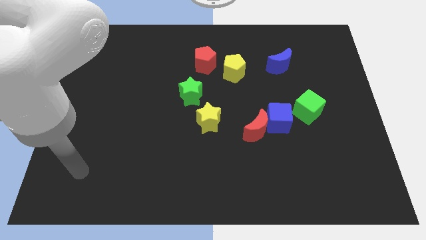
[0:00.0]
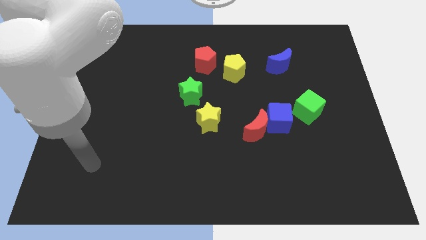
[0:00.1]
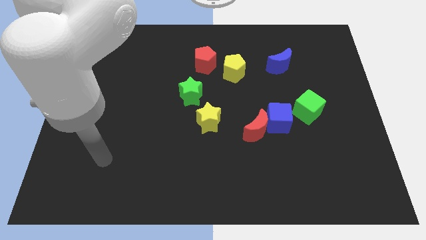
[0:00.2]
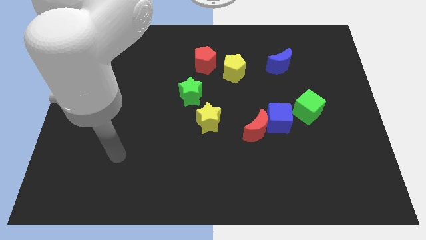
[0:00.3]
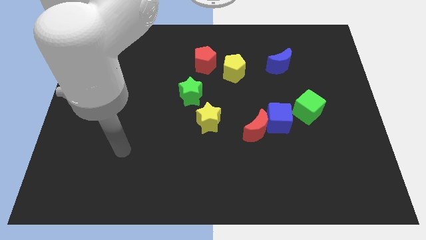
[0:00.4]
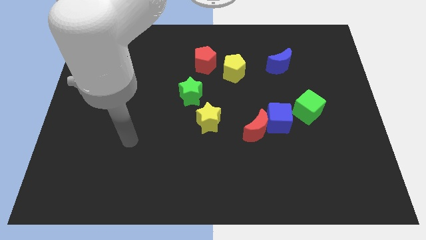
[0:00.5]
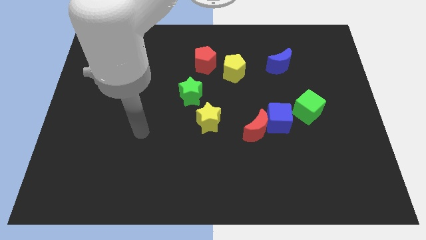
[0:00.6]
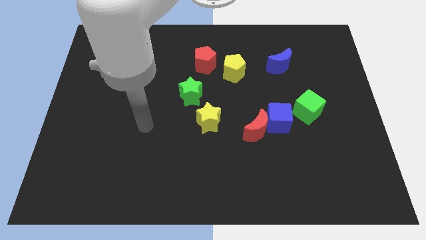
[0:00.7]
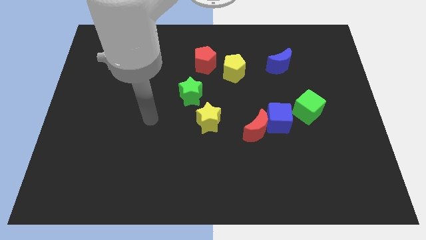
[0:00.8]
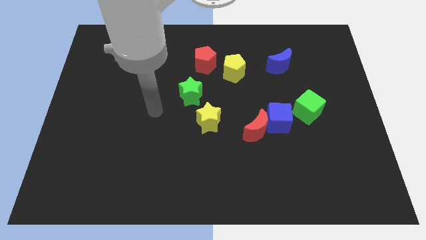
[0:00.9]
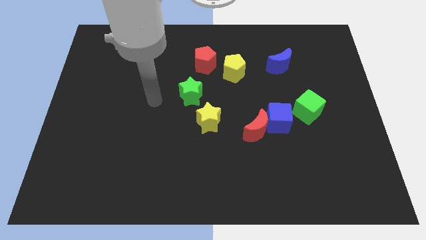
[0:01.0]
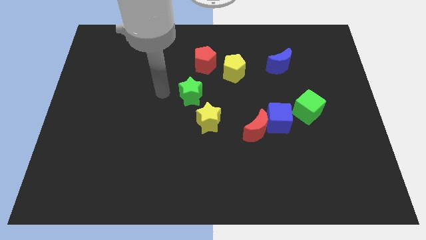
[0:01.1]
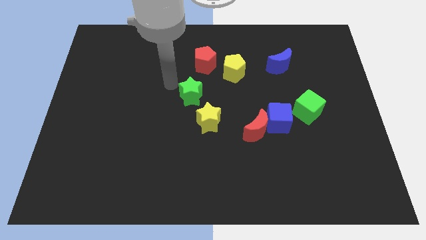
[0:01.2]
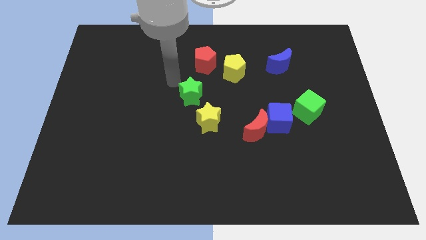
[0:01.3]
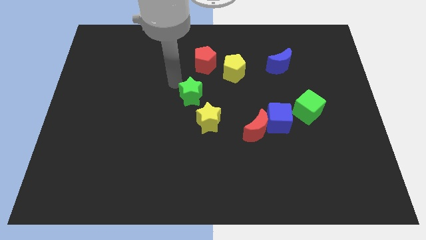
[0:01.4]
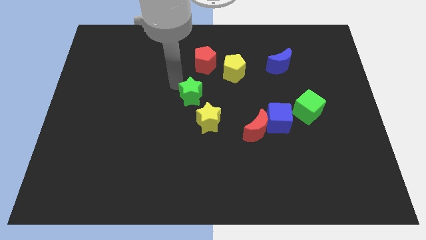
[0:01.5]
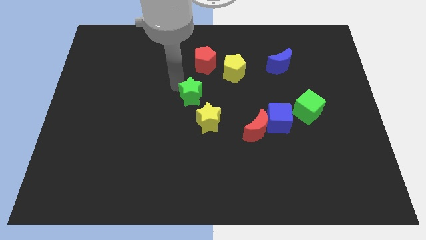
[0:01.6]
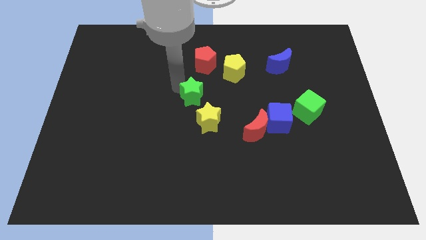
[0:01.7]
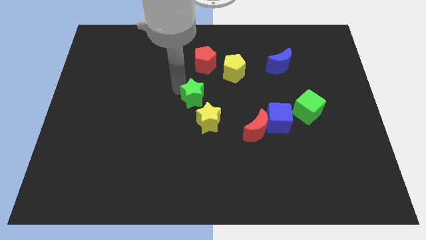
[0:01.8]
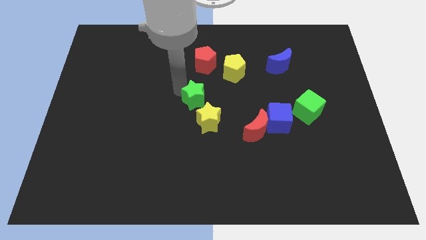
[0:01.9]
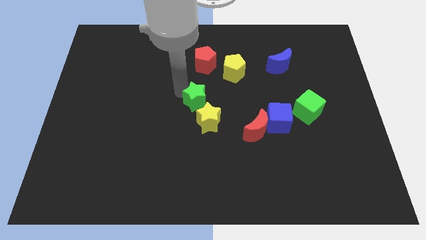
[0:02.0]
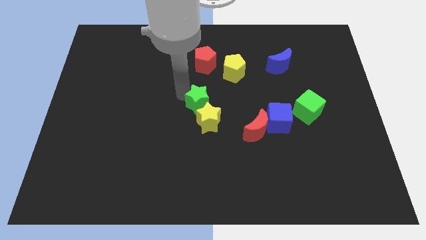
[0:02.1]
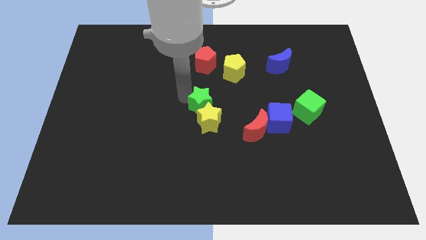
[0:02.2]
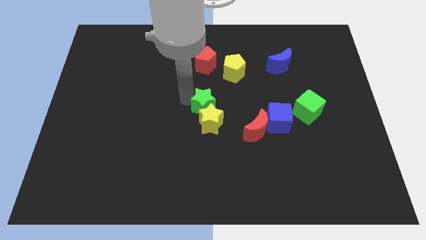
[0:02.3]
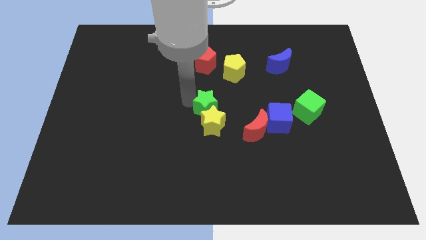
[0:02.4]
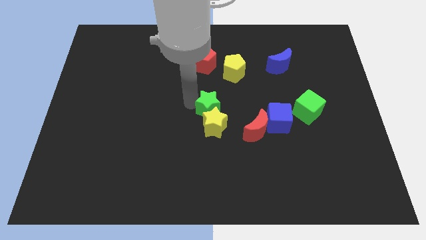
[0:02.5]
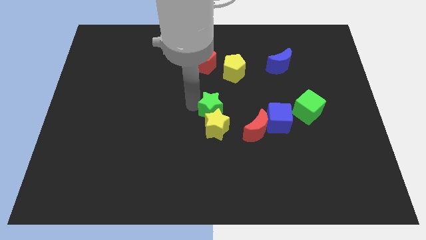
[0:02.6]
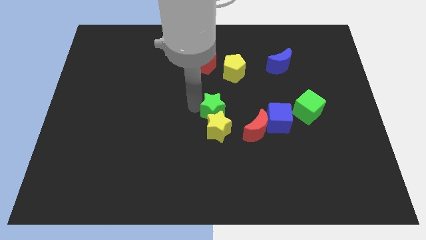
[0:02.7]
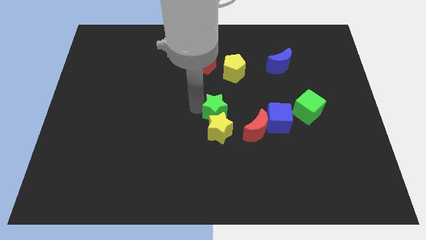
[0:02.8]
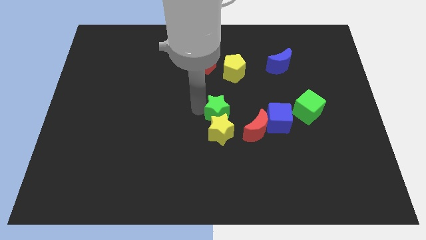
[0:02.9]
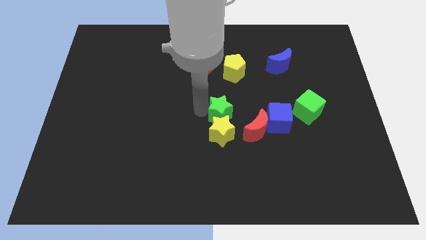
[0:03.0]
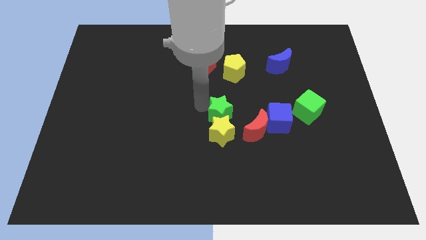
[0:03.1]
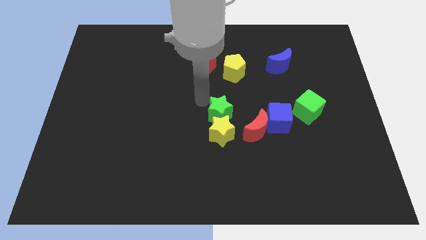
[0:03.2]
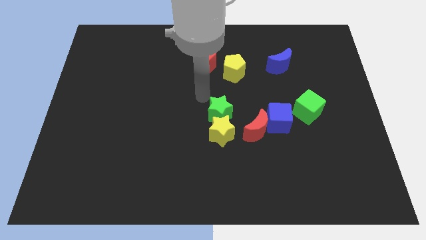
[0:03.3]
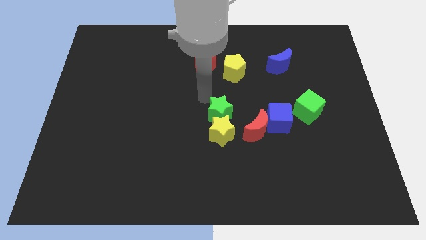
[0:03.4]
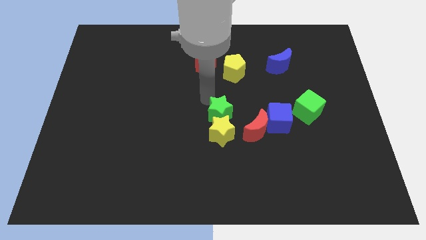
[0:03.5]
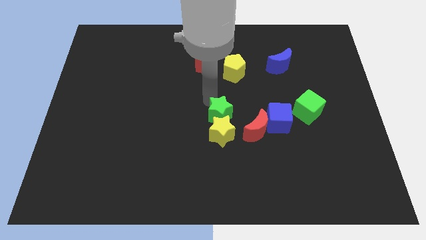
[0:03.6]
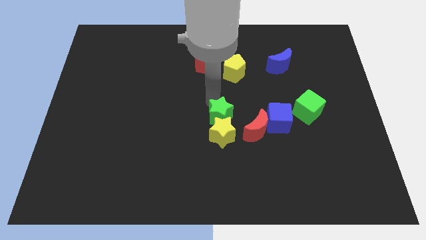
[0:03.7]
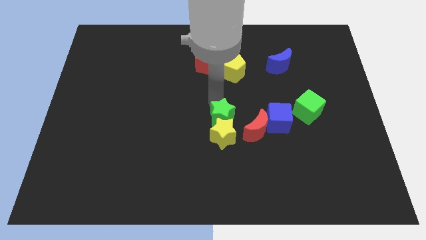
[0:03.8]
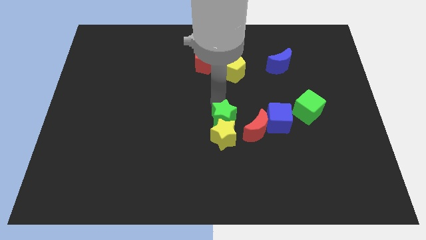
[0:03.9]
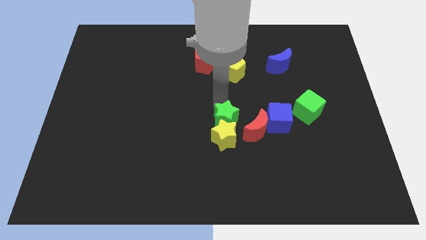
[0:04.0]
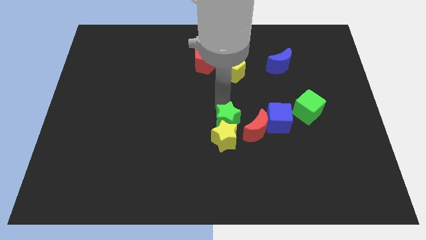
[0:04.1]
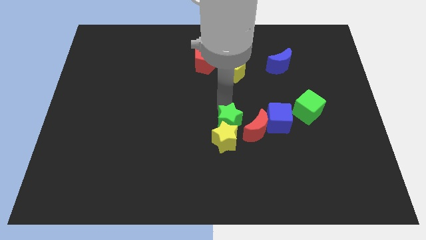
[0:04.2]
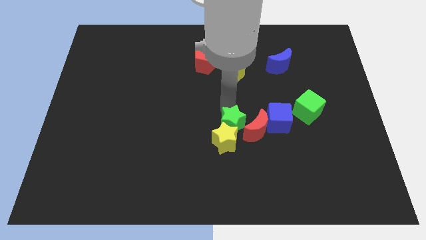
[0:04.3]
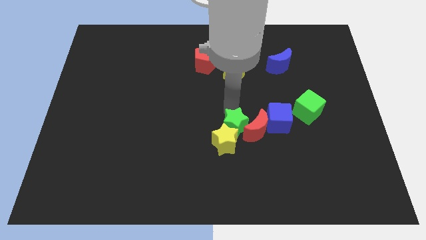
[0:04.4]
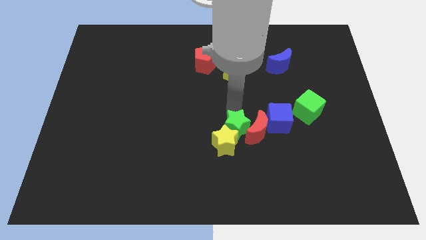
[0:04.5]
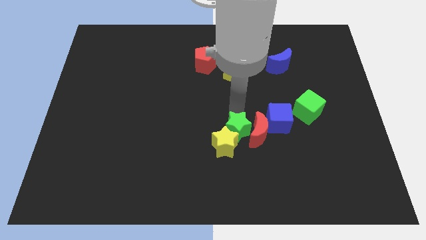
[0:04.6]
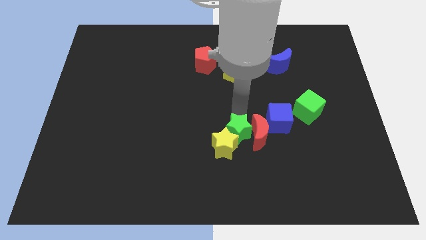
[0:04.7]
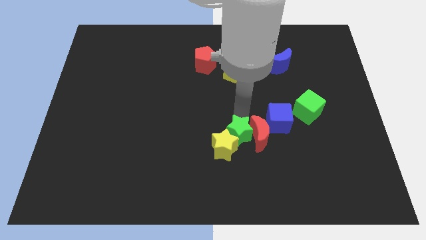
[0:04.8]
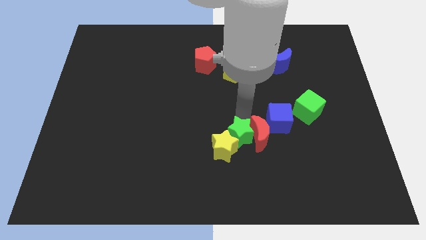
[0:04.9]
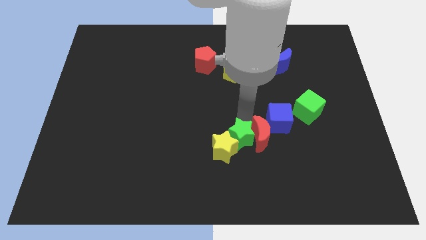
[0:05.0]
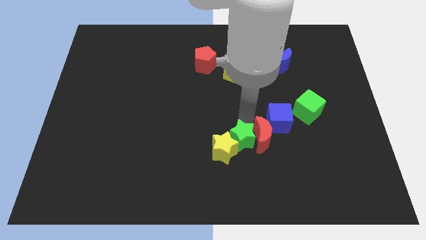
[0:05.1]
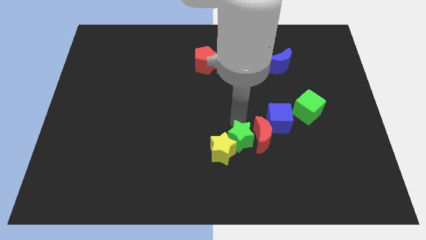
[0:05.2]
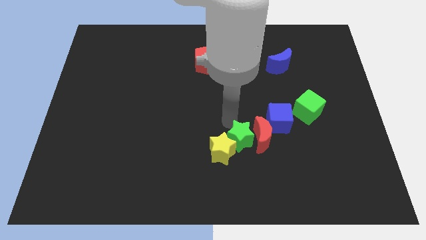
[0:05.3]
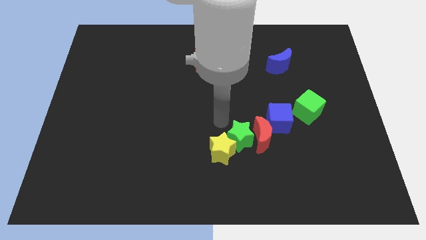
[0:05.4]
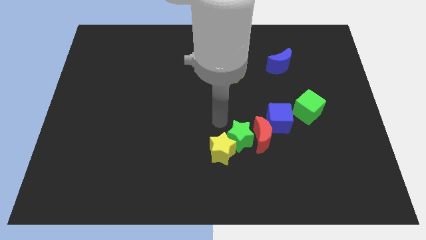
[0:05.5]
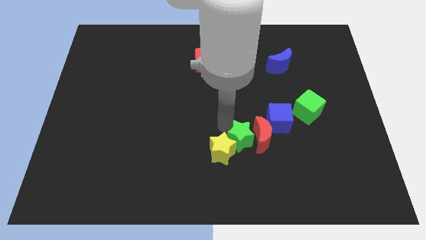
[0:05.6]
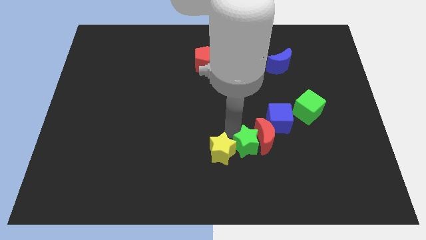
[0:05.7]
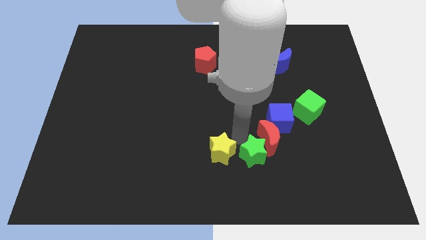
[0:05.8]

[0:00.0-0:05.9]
push the green star downwards and then to the right

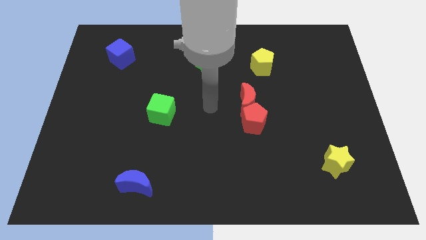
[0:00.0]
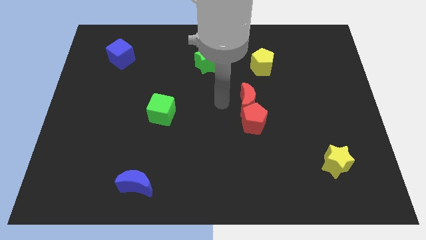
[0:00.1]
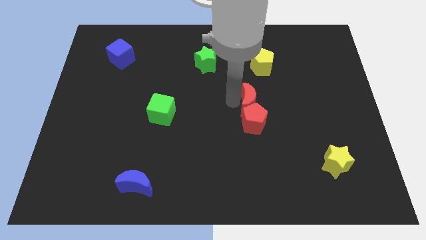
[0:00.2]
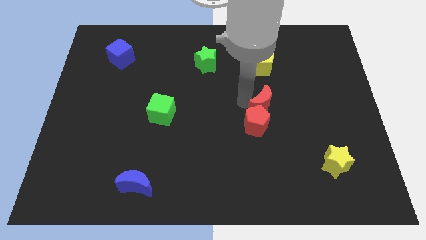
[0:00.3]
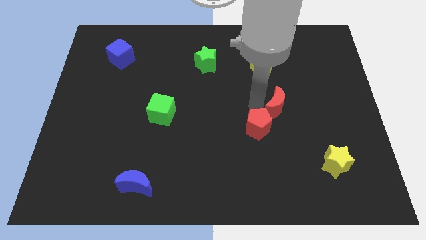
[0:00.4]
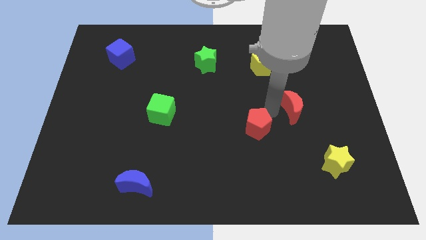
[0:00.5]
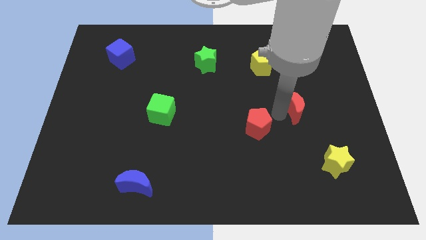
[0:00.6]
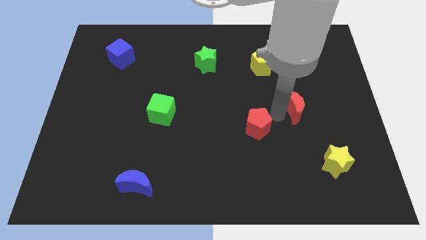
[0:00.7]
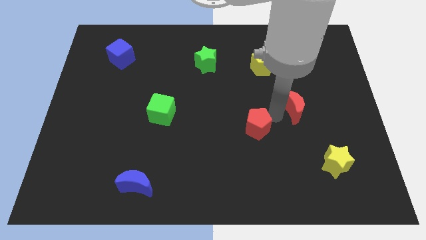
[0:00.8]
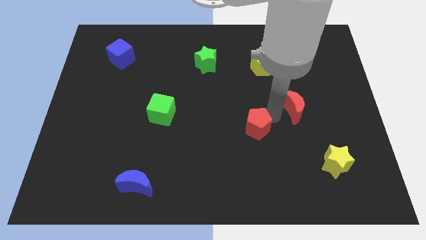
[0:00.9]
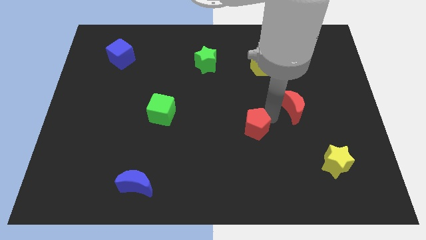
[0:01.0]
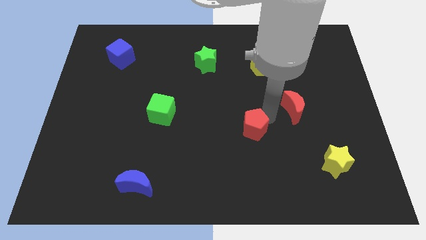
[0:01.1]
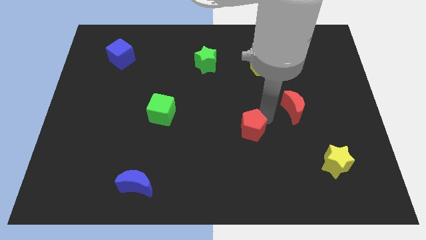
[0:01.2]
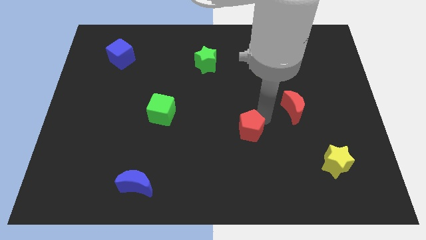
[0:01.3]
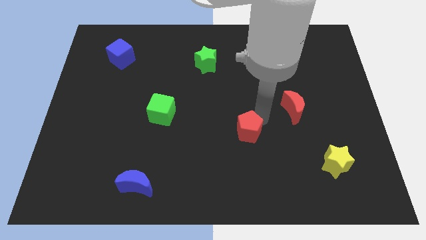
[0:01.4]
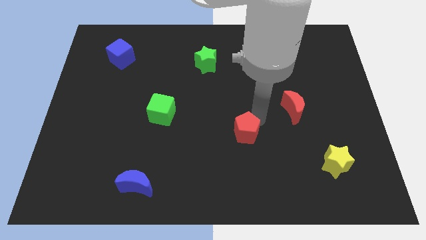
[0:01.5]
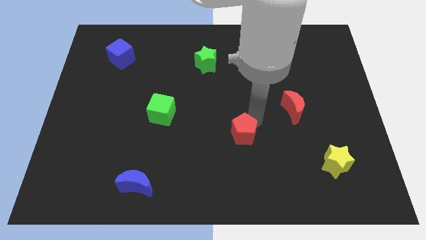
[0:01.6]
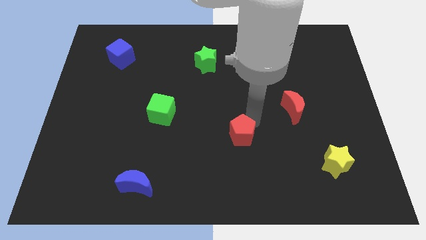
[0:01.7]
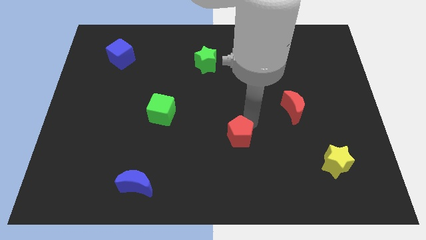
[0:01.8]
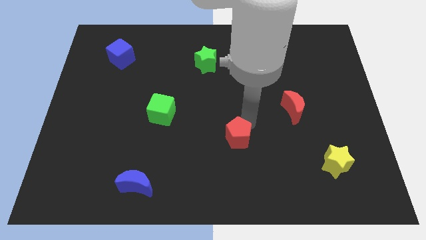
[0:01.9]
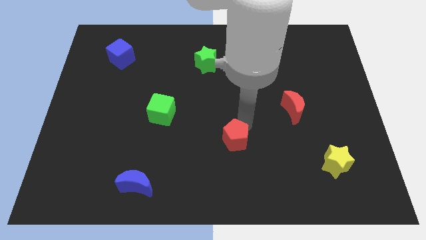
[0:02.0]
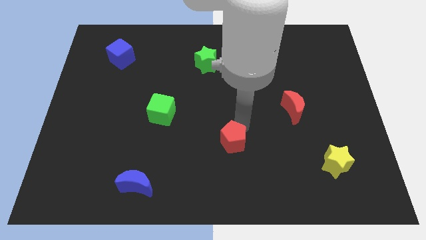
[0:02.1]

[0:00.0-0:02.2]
slide the red pentagon a little bit diagonally downwards and to the left
